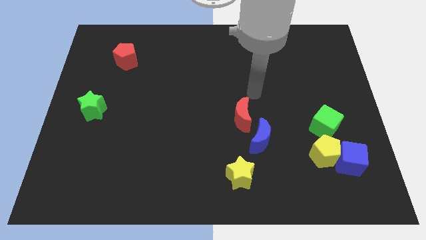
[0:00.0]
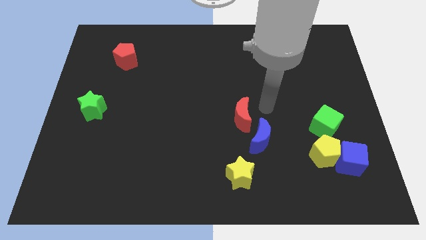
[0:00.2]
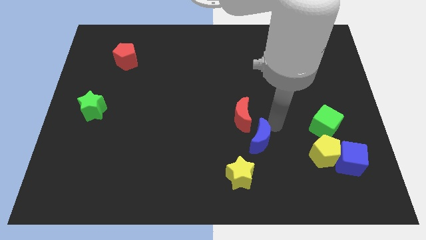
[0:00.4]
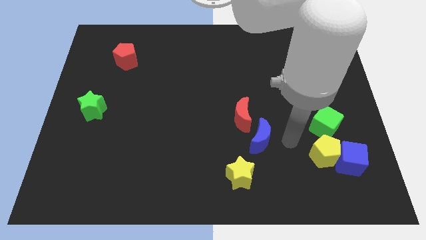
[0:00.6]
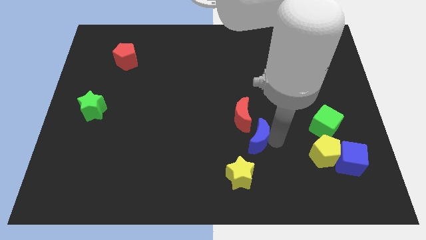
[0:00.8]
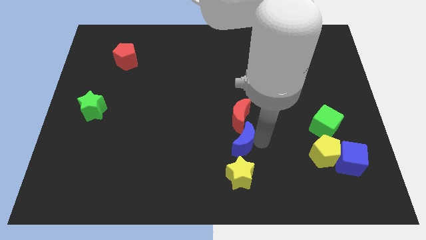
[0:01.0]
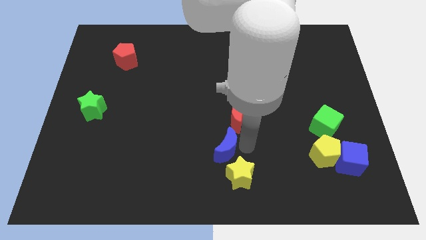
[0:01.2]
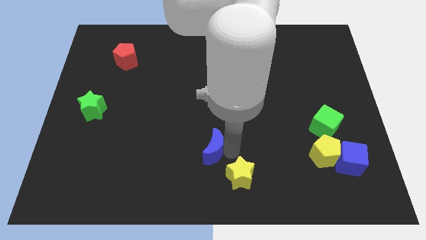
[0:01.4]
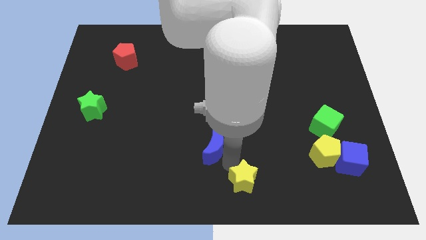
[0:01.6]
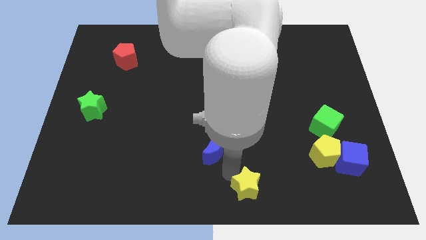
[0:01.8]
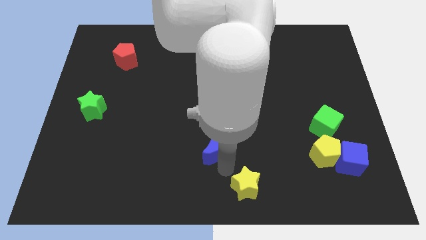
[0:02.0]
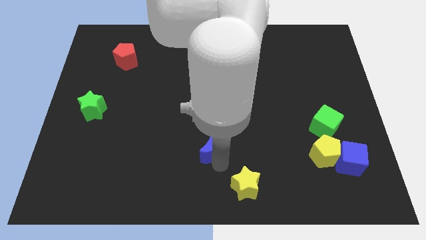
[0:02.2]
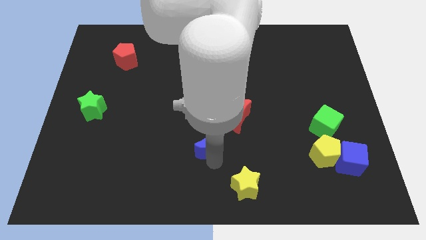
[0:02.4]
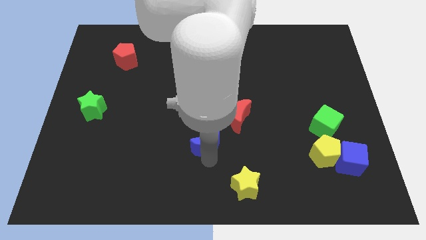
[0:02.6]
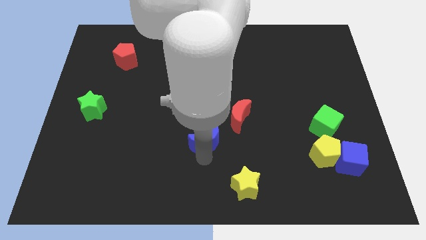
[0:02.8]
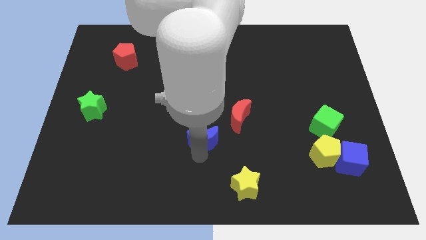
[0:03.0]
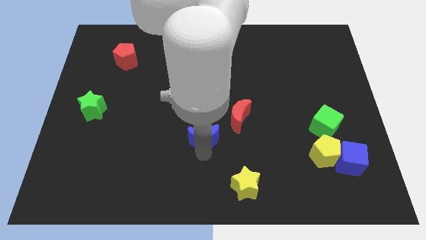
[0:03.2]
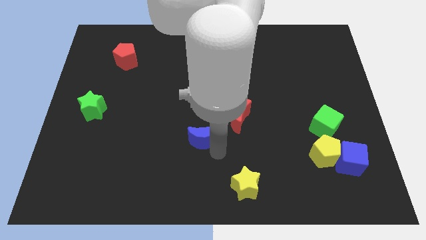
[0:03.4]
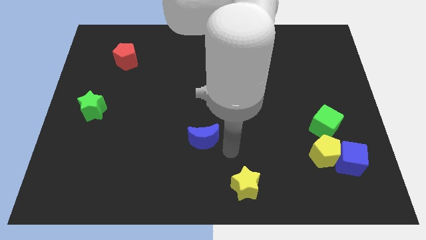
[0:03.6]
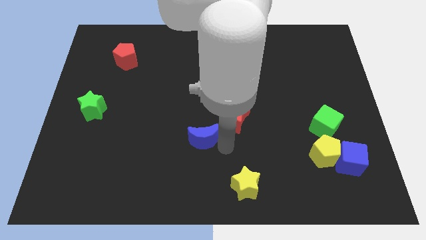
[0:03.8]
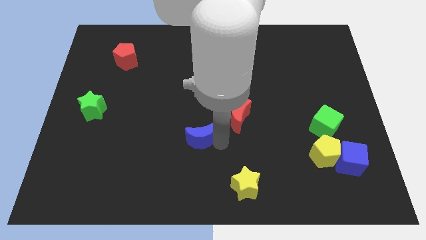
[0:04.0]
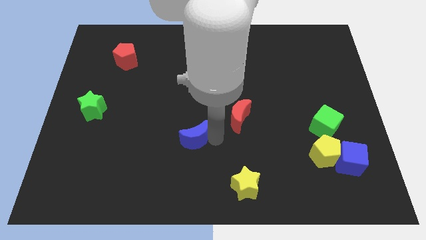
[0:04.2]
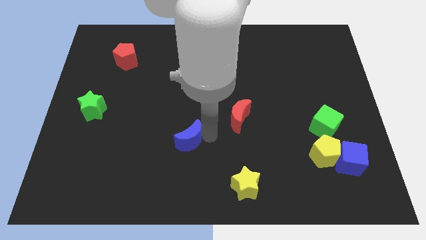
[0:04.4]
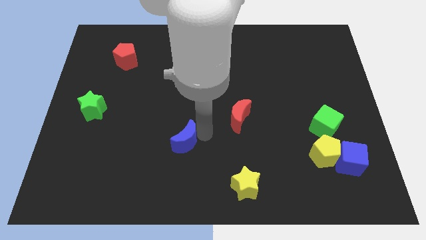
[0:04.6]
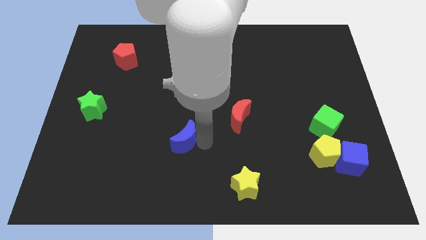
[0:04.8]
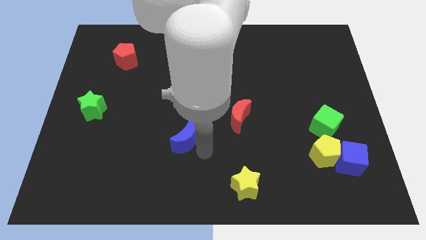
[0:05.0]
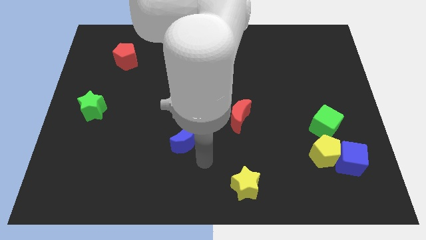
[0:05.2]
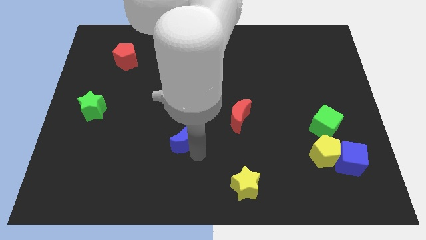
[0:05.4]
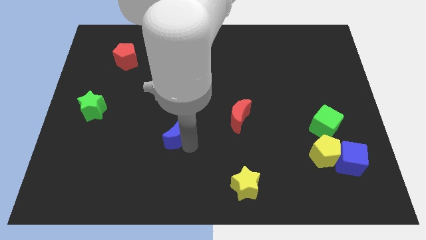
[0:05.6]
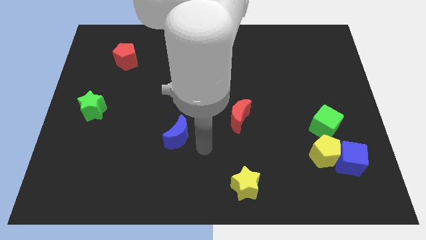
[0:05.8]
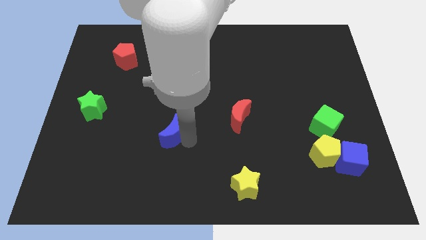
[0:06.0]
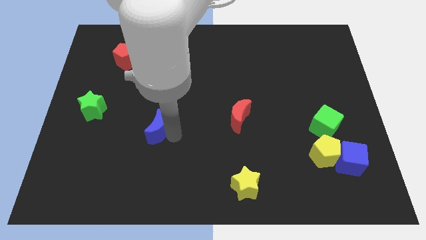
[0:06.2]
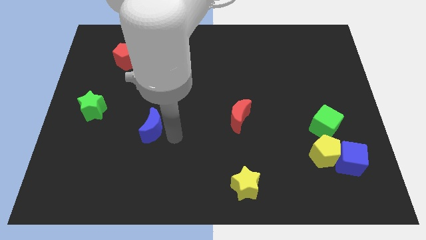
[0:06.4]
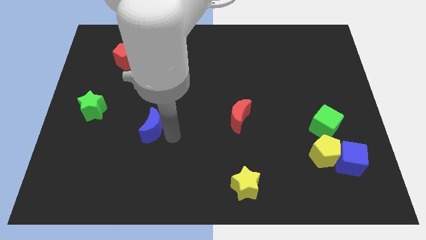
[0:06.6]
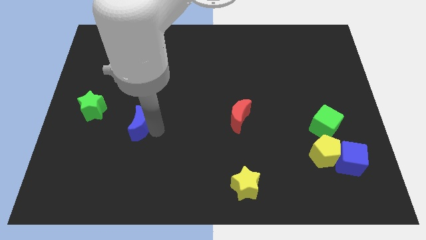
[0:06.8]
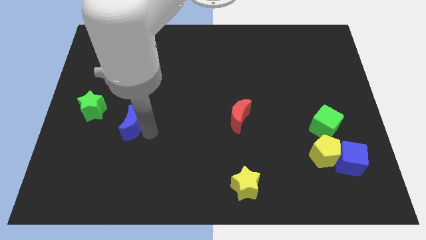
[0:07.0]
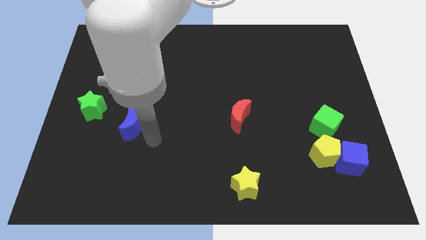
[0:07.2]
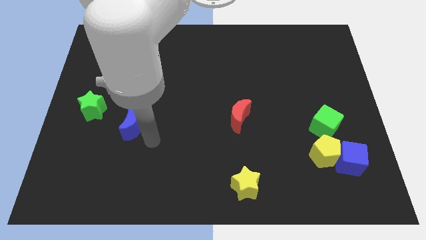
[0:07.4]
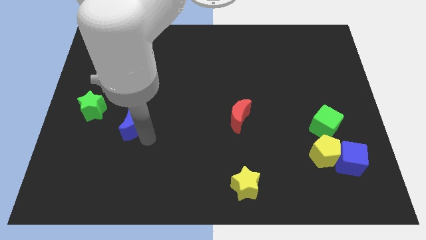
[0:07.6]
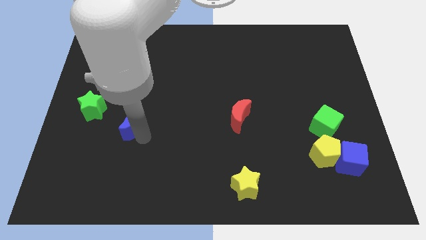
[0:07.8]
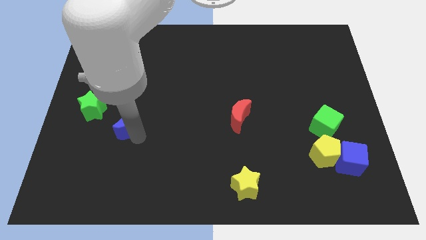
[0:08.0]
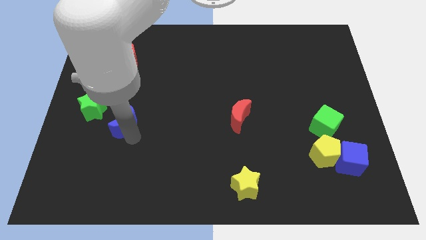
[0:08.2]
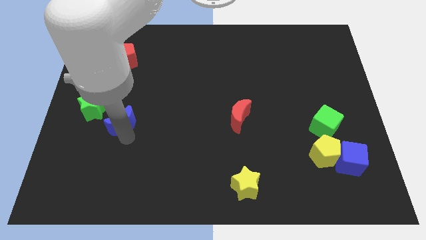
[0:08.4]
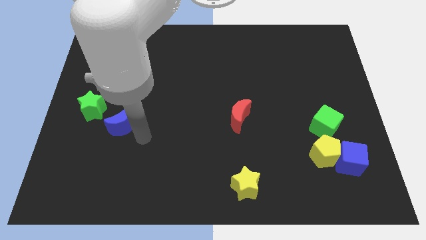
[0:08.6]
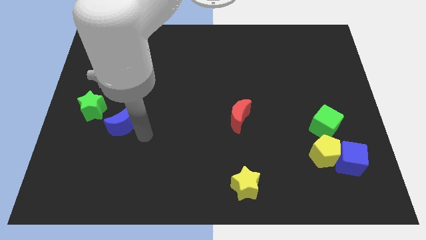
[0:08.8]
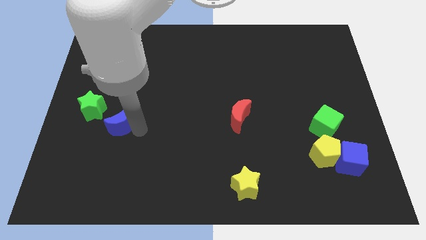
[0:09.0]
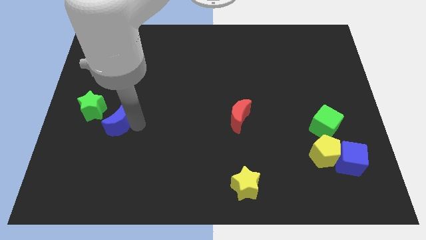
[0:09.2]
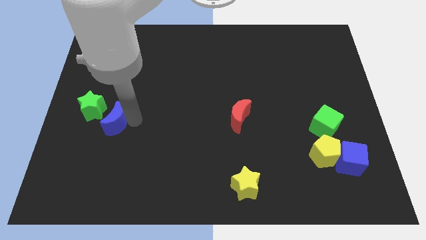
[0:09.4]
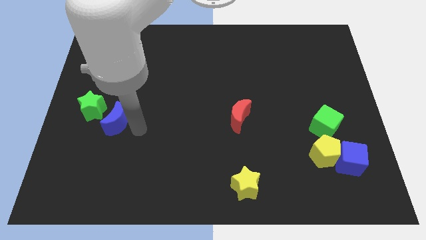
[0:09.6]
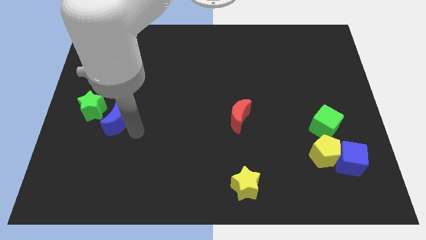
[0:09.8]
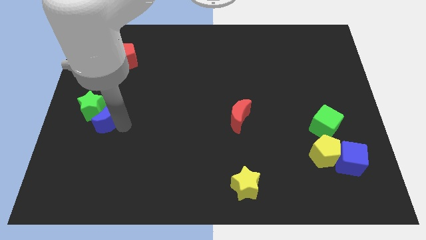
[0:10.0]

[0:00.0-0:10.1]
slide the blue moon close to the green star

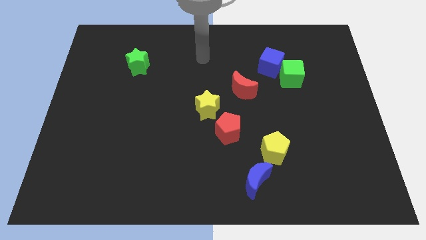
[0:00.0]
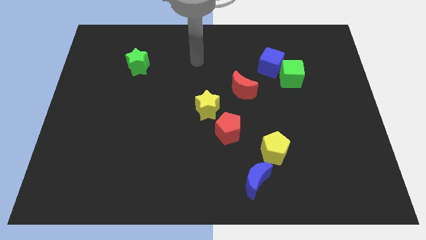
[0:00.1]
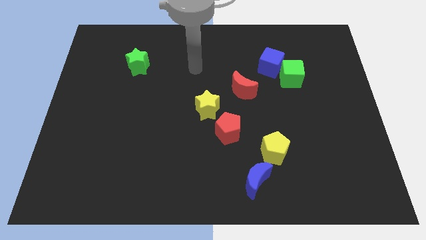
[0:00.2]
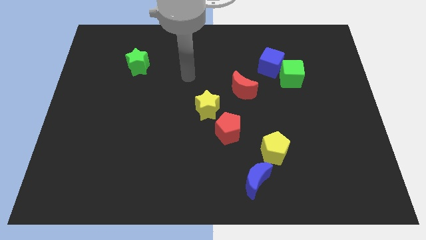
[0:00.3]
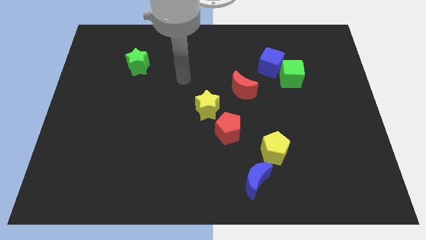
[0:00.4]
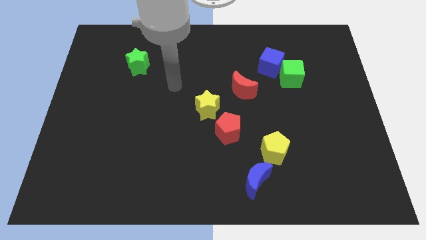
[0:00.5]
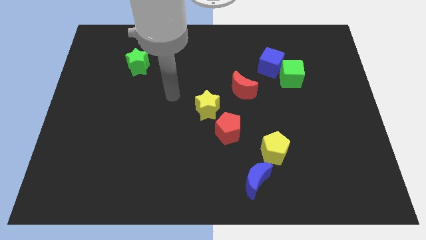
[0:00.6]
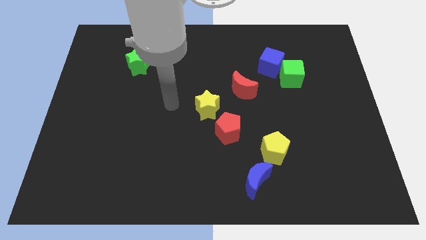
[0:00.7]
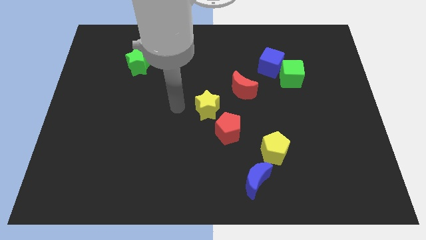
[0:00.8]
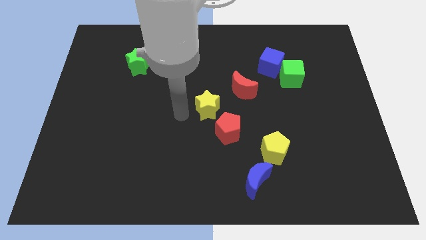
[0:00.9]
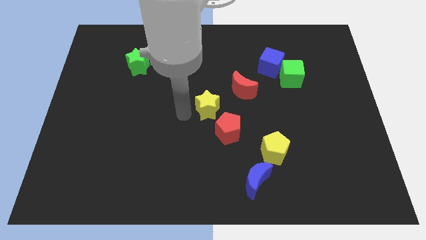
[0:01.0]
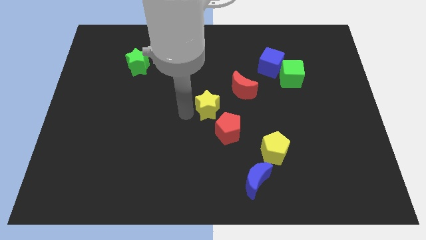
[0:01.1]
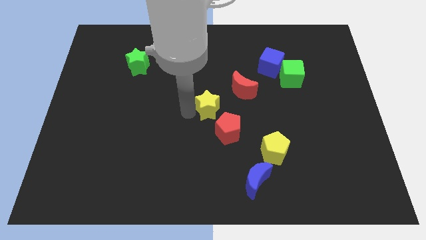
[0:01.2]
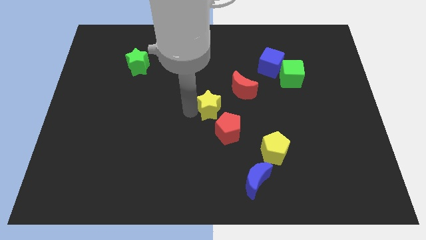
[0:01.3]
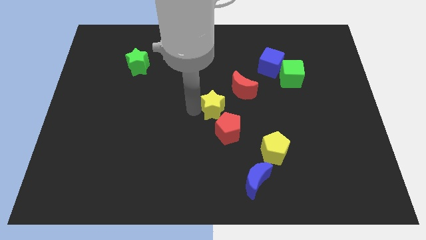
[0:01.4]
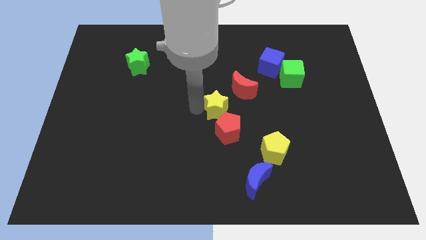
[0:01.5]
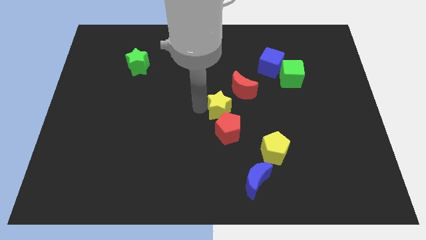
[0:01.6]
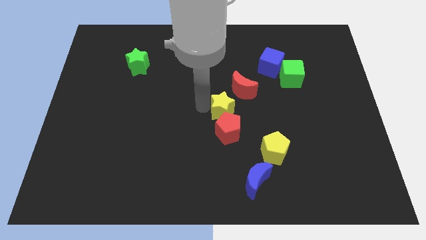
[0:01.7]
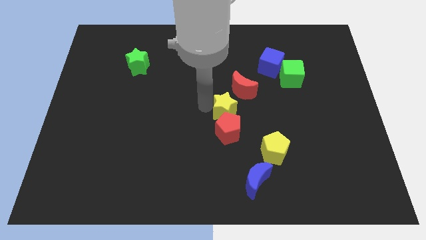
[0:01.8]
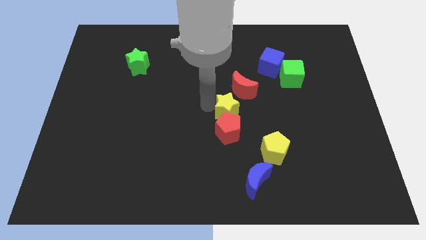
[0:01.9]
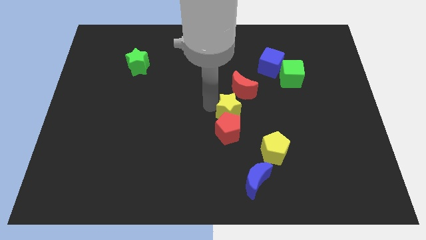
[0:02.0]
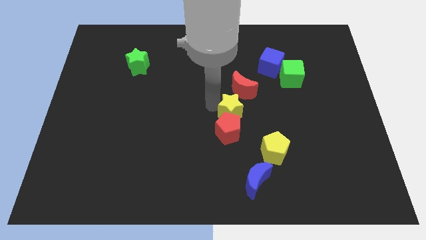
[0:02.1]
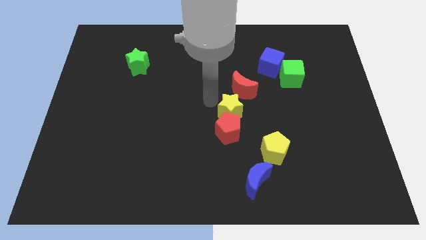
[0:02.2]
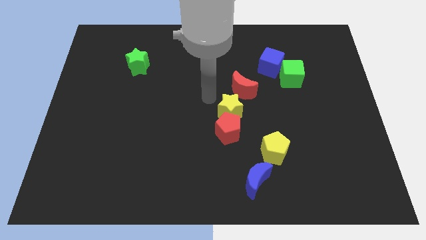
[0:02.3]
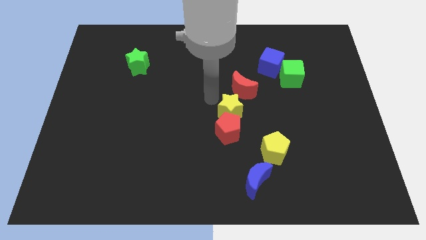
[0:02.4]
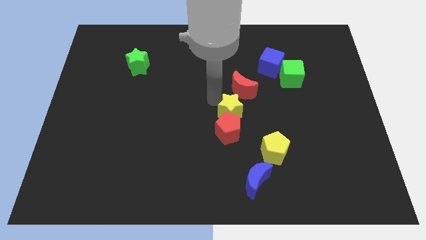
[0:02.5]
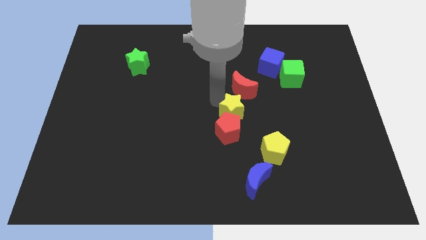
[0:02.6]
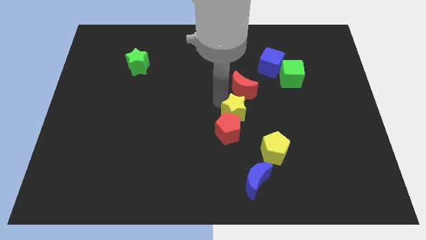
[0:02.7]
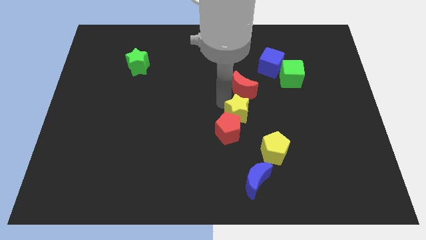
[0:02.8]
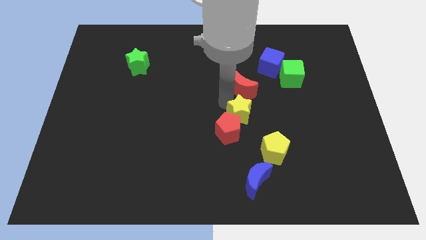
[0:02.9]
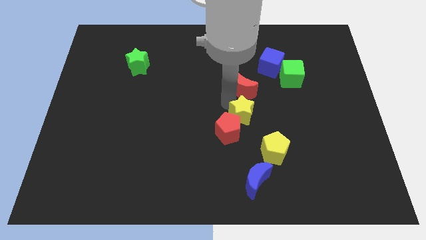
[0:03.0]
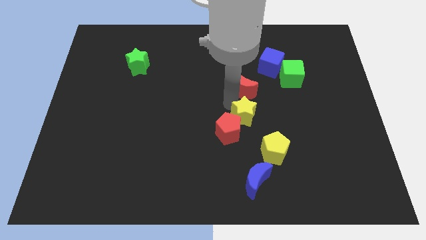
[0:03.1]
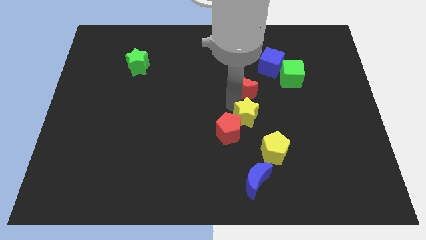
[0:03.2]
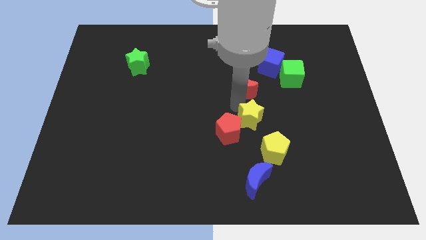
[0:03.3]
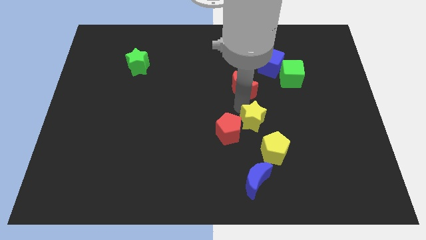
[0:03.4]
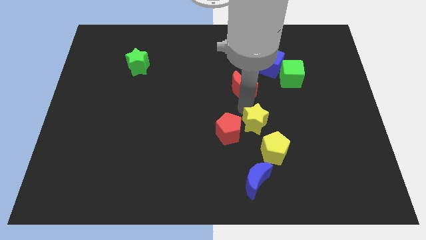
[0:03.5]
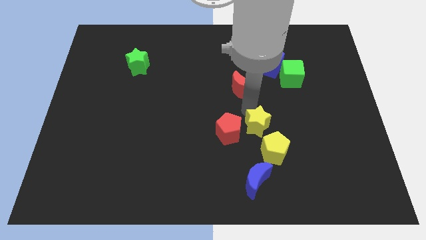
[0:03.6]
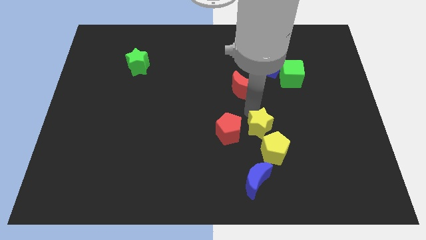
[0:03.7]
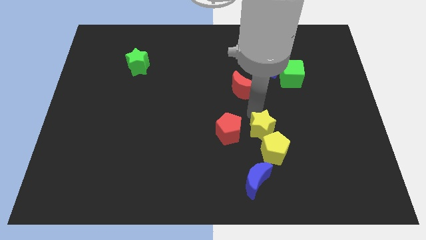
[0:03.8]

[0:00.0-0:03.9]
put the yellow star towards the yellow pentagon
